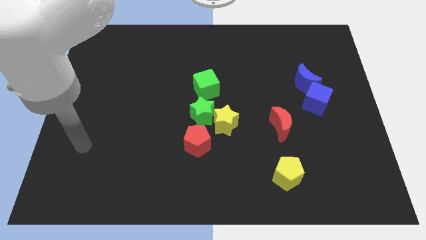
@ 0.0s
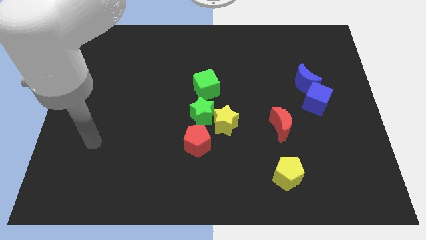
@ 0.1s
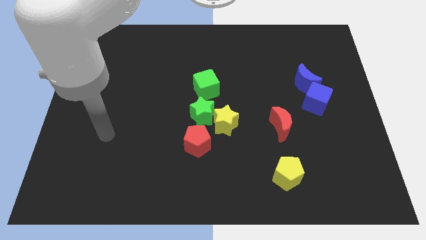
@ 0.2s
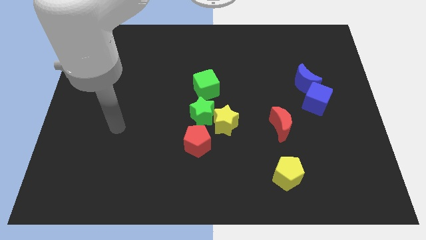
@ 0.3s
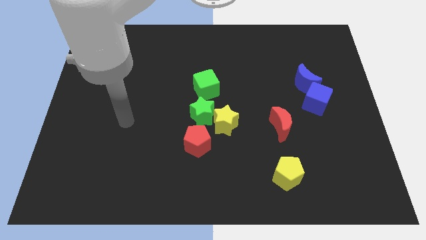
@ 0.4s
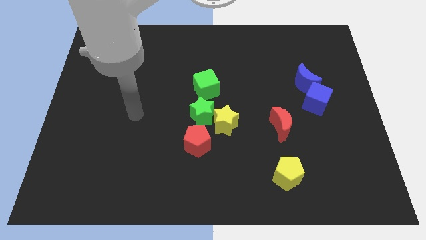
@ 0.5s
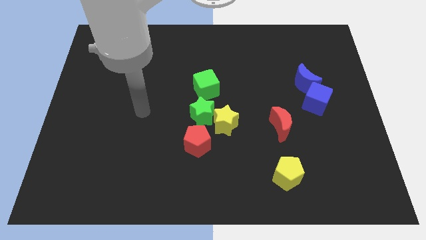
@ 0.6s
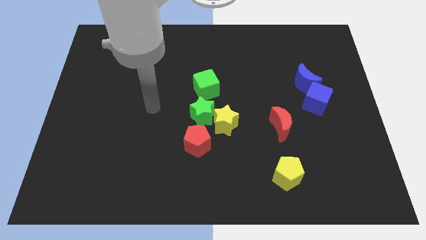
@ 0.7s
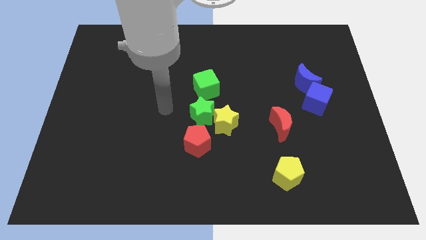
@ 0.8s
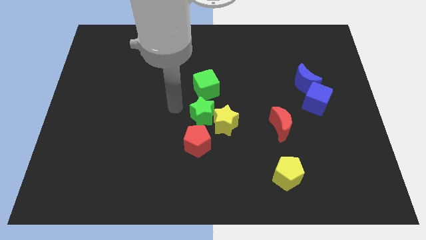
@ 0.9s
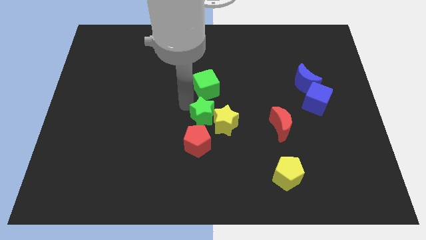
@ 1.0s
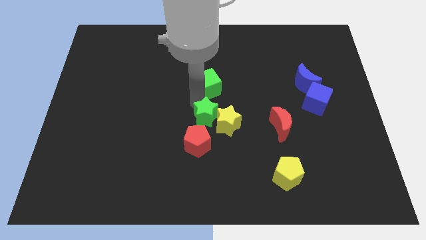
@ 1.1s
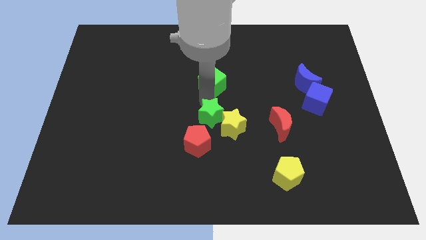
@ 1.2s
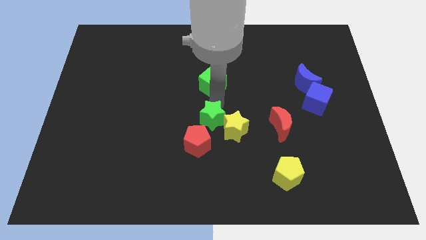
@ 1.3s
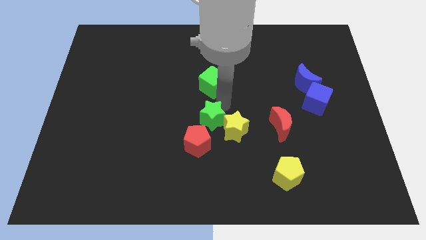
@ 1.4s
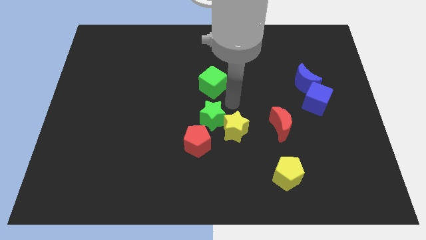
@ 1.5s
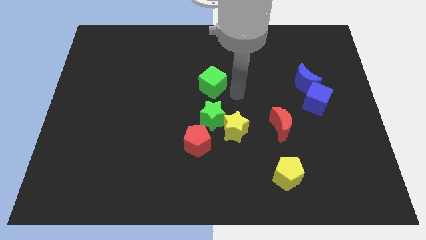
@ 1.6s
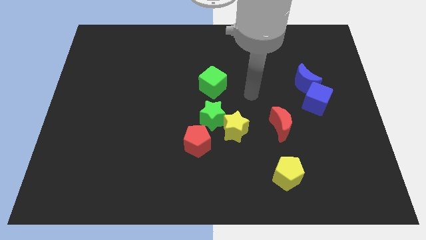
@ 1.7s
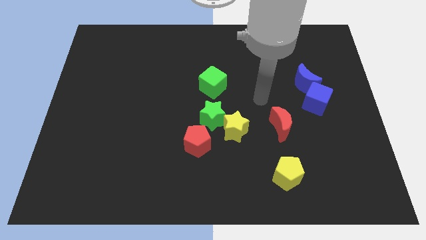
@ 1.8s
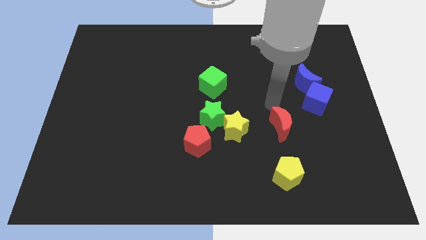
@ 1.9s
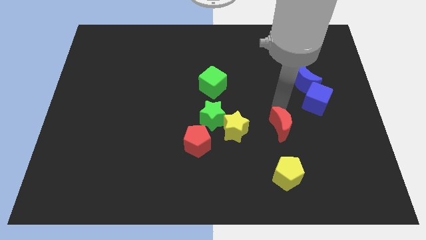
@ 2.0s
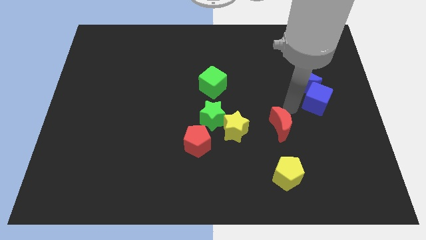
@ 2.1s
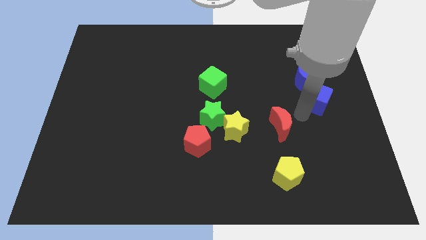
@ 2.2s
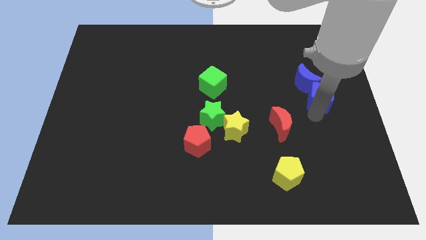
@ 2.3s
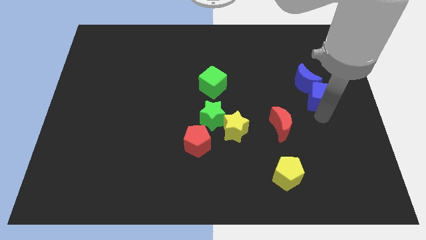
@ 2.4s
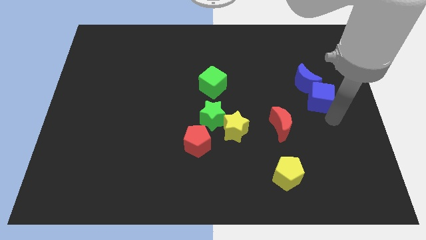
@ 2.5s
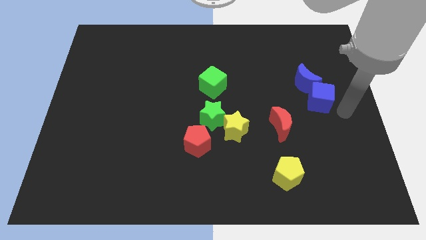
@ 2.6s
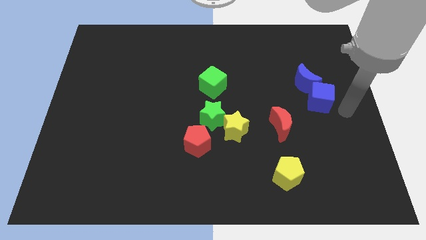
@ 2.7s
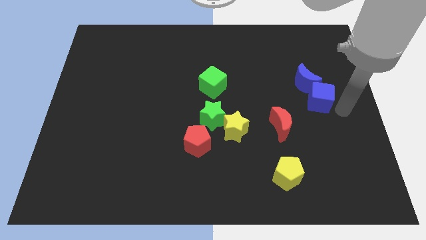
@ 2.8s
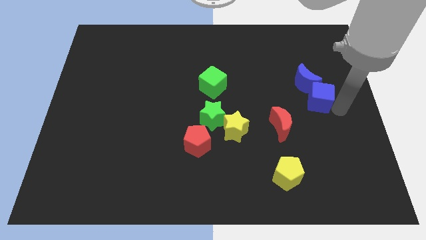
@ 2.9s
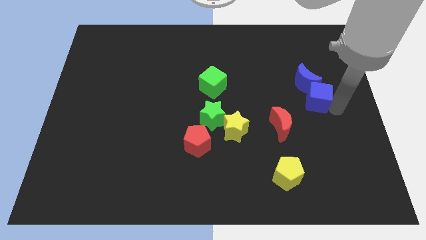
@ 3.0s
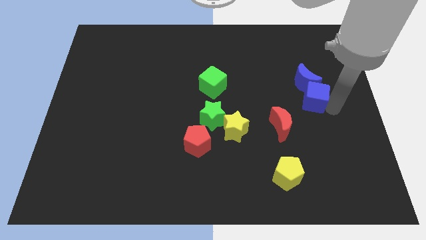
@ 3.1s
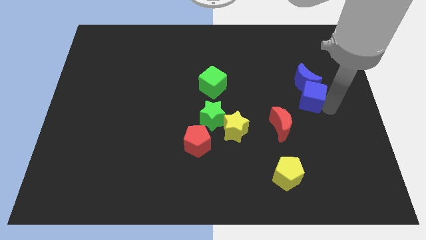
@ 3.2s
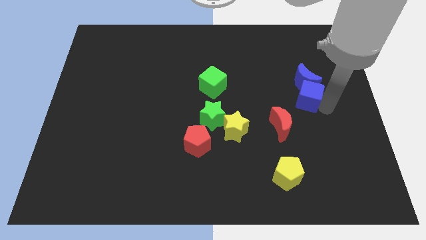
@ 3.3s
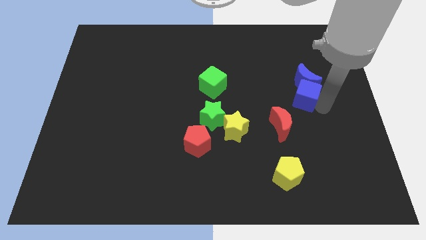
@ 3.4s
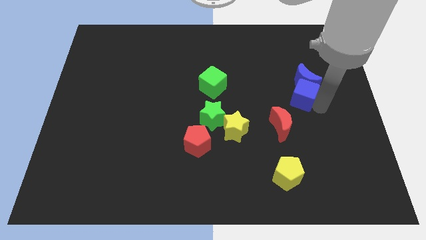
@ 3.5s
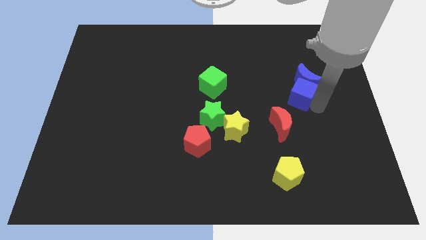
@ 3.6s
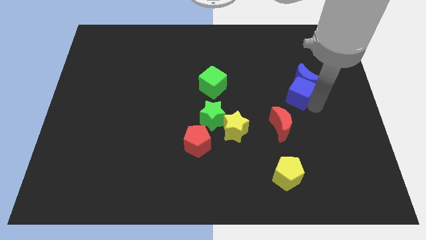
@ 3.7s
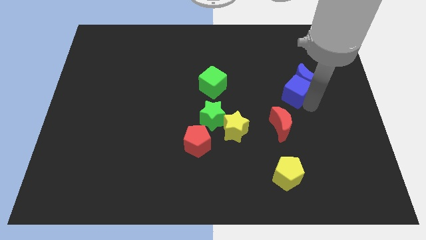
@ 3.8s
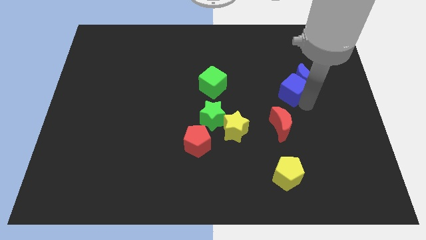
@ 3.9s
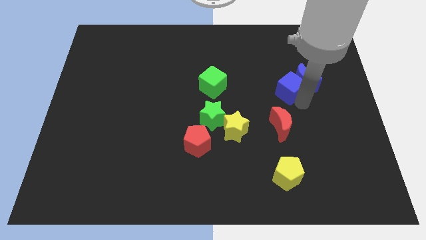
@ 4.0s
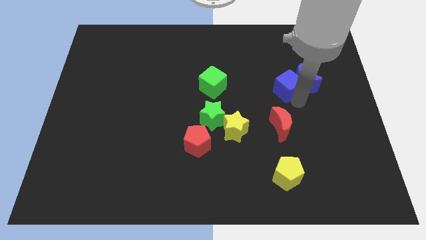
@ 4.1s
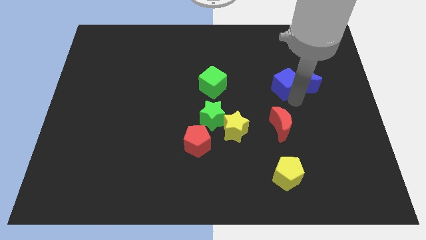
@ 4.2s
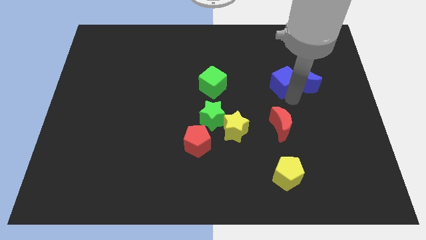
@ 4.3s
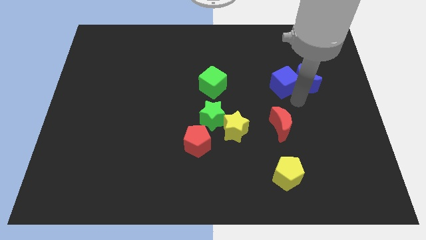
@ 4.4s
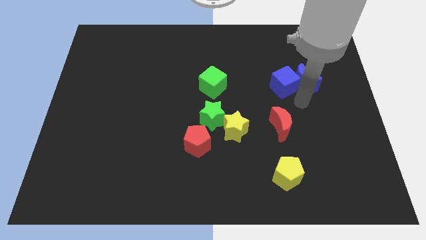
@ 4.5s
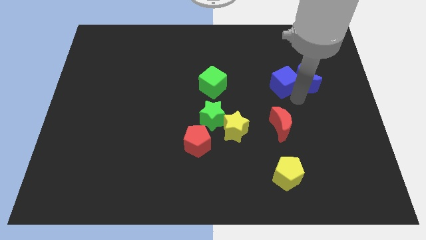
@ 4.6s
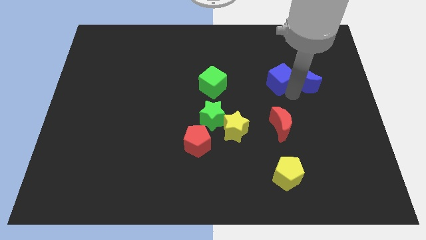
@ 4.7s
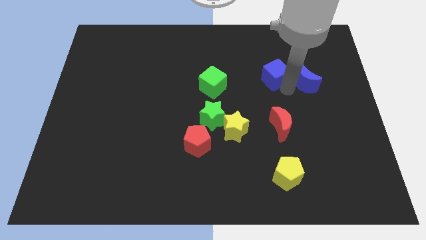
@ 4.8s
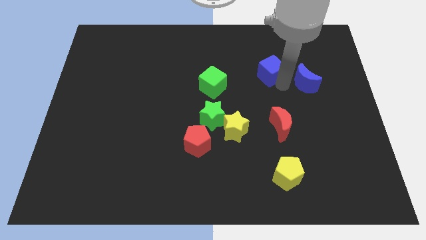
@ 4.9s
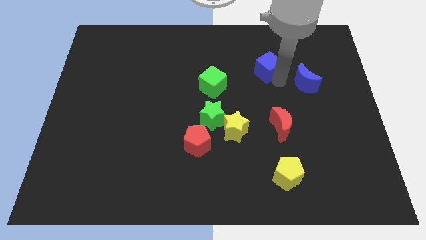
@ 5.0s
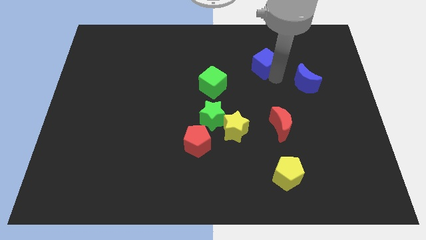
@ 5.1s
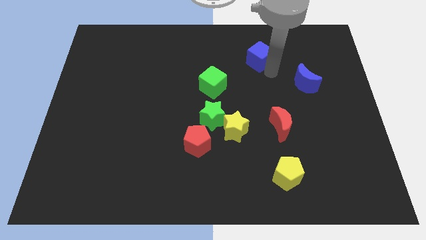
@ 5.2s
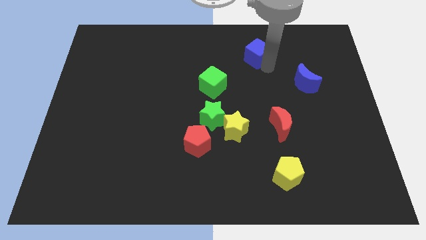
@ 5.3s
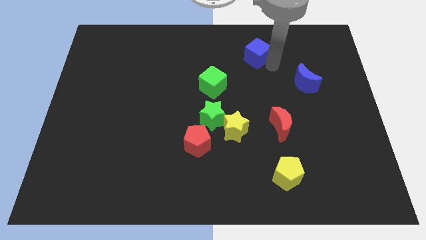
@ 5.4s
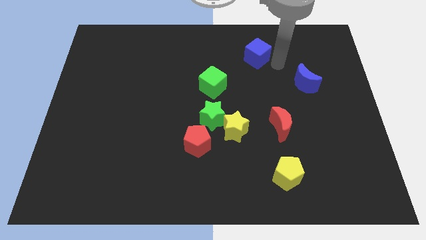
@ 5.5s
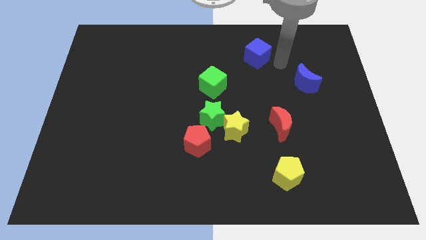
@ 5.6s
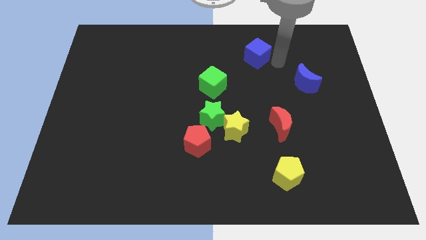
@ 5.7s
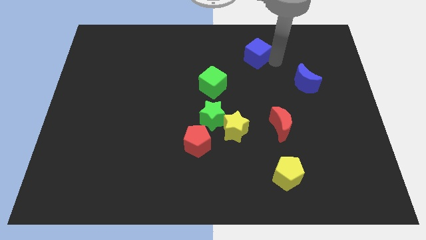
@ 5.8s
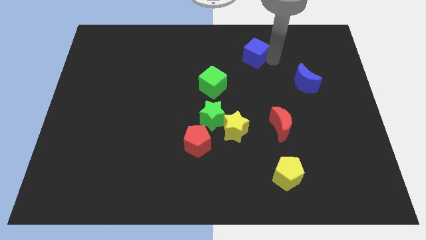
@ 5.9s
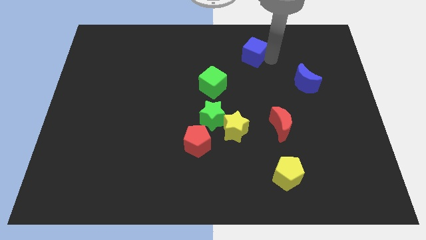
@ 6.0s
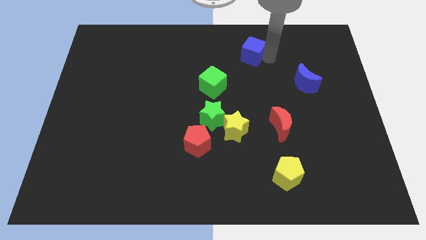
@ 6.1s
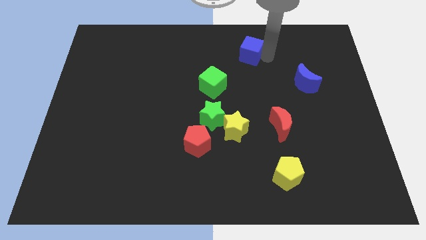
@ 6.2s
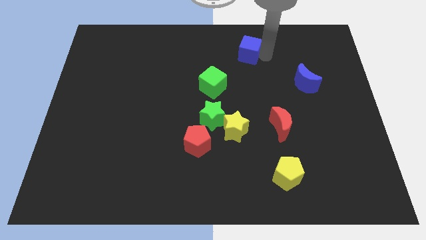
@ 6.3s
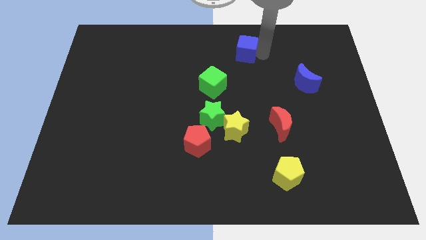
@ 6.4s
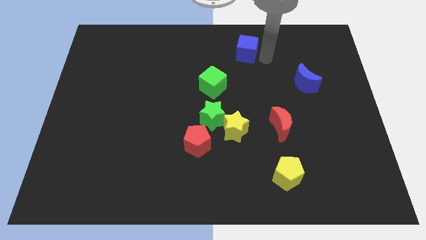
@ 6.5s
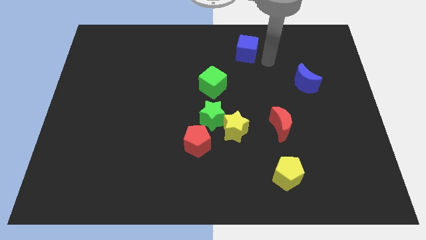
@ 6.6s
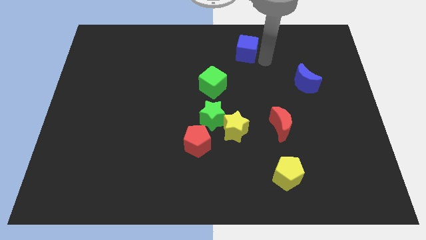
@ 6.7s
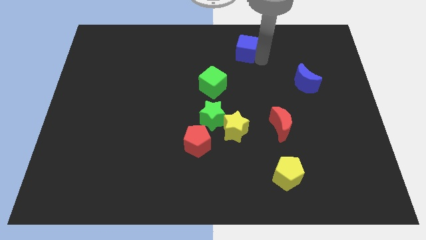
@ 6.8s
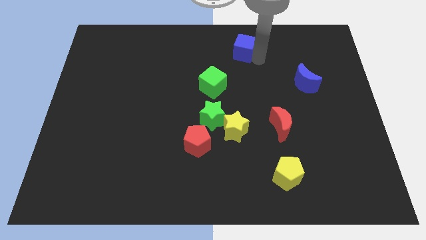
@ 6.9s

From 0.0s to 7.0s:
slide the blue cube to the top side

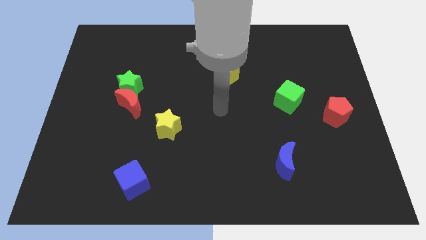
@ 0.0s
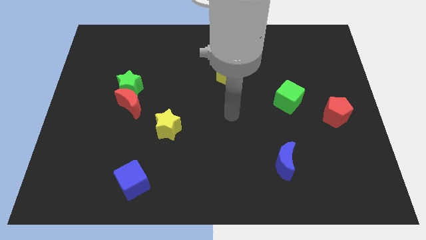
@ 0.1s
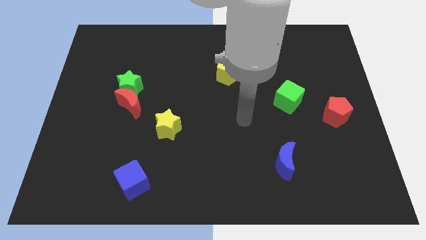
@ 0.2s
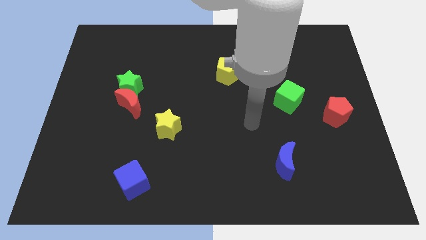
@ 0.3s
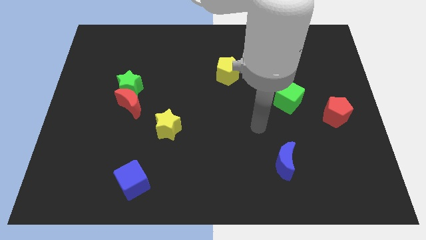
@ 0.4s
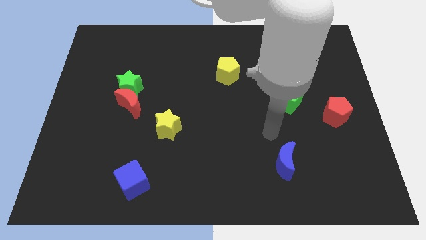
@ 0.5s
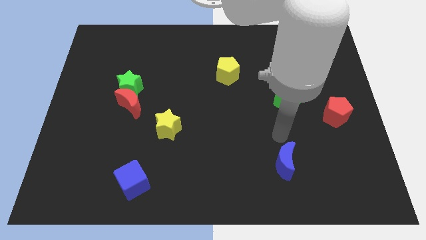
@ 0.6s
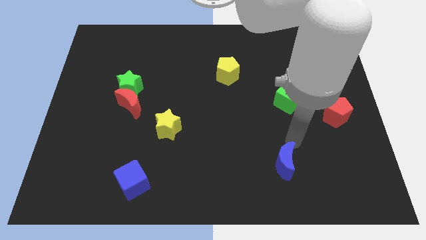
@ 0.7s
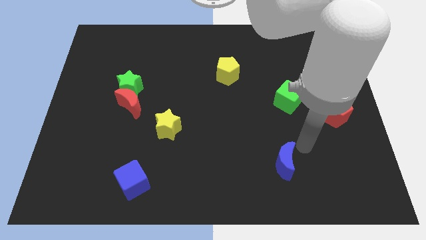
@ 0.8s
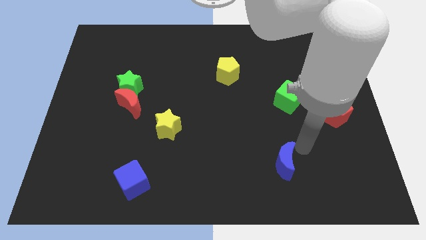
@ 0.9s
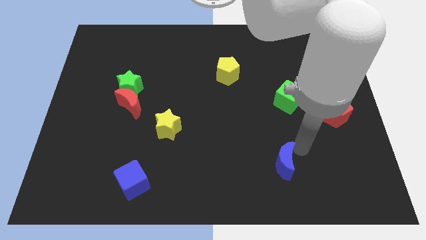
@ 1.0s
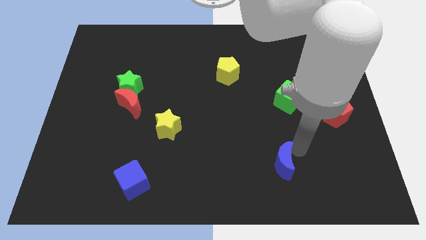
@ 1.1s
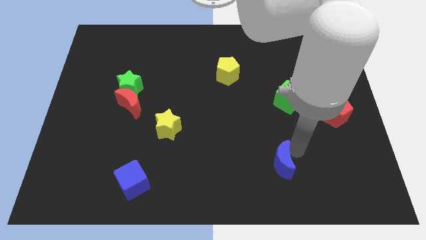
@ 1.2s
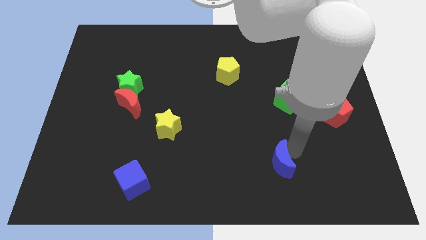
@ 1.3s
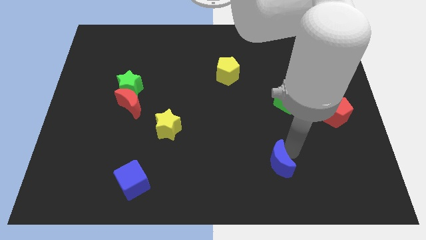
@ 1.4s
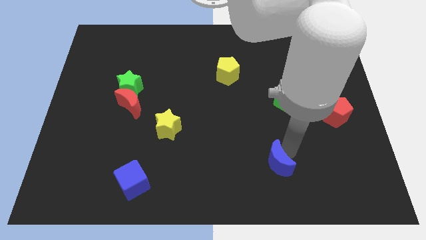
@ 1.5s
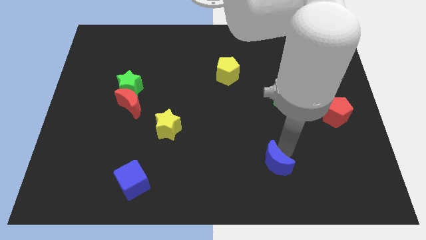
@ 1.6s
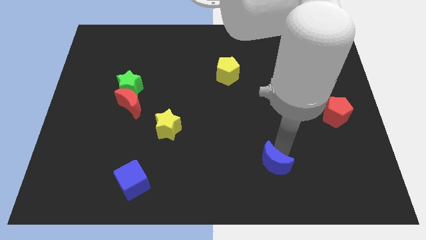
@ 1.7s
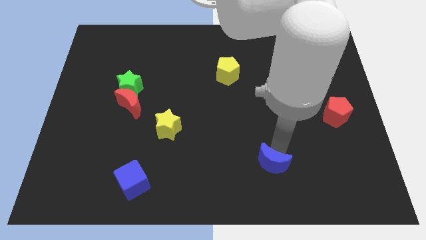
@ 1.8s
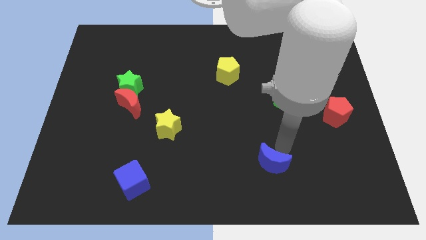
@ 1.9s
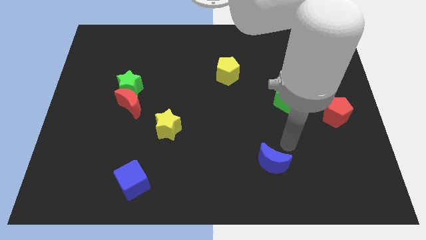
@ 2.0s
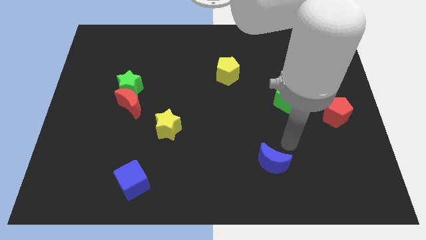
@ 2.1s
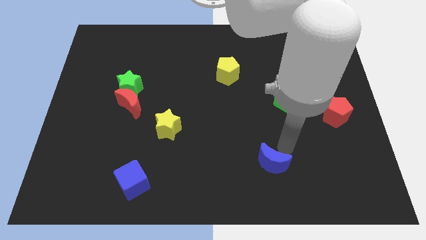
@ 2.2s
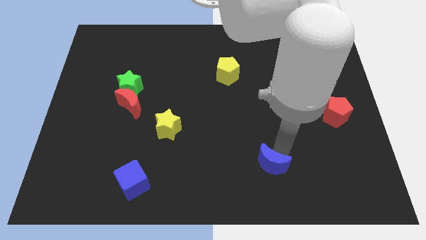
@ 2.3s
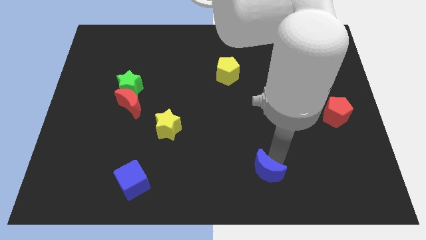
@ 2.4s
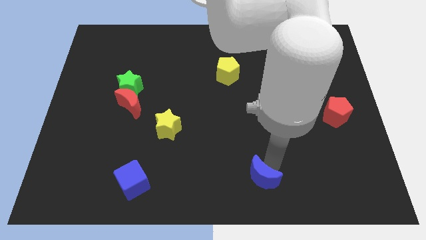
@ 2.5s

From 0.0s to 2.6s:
slide the blue moon to the bottom side
